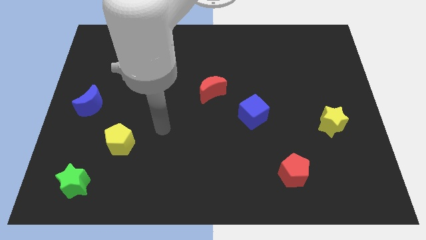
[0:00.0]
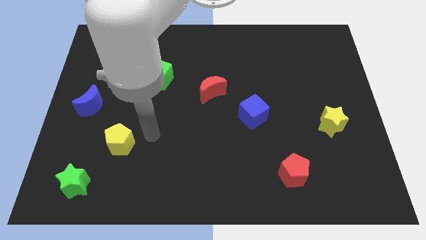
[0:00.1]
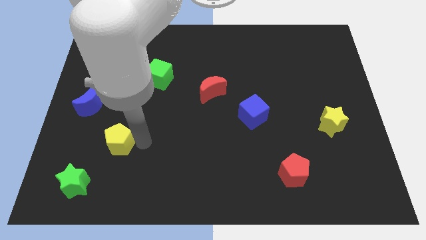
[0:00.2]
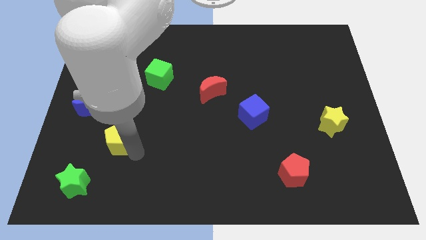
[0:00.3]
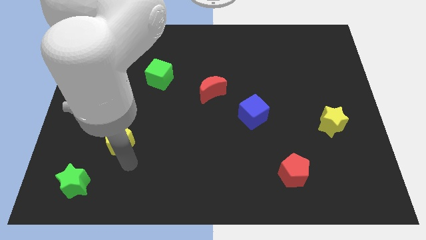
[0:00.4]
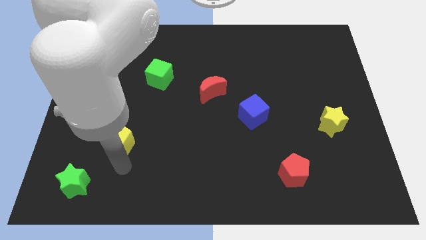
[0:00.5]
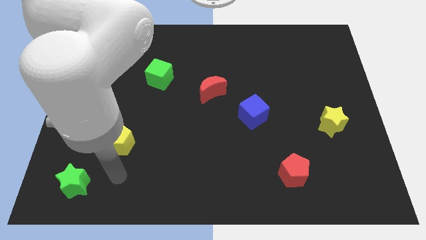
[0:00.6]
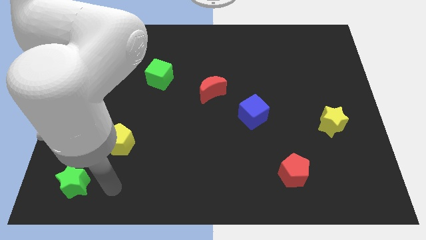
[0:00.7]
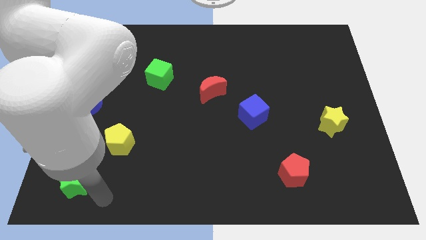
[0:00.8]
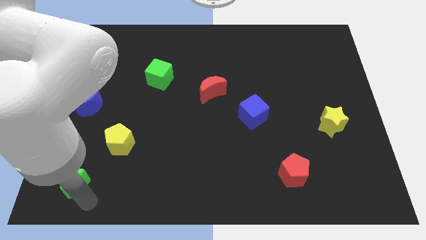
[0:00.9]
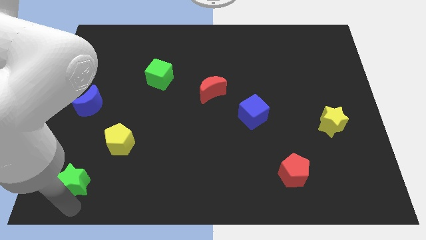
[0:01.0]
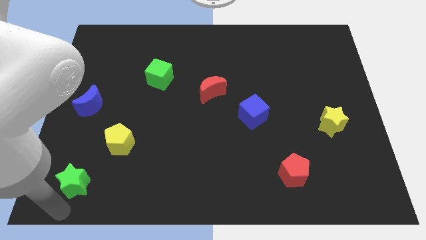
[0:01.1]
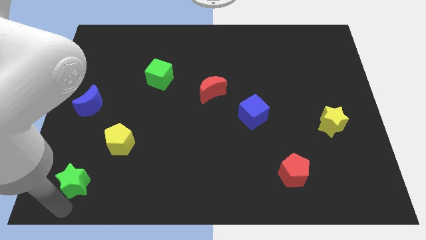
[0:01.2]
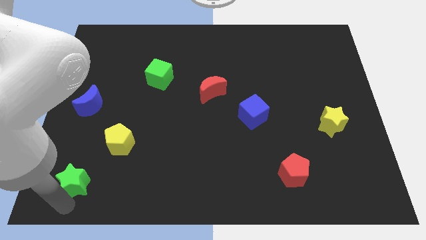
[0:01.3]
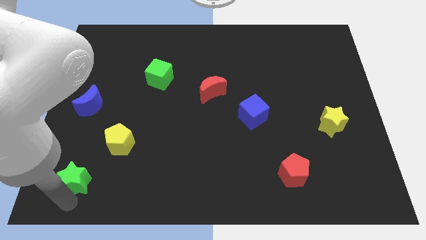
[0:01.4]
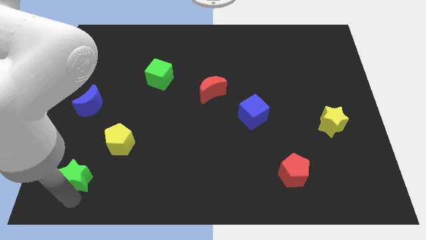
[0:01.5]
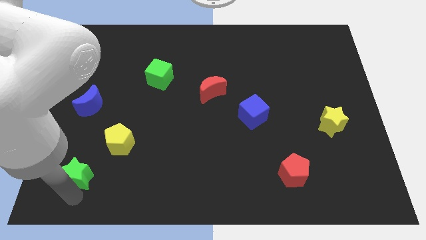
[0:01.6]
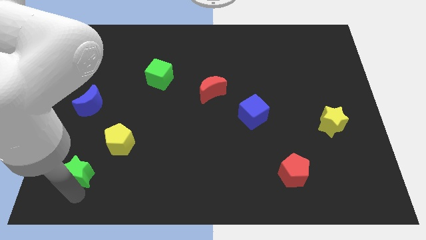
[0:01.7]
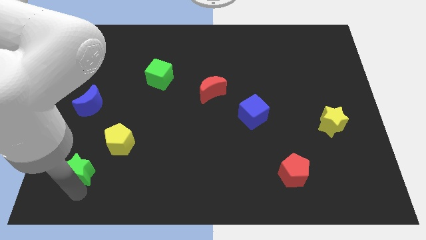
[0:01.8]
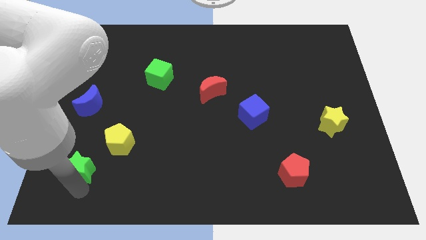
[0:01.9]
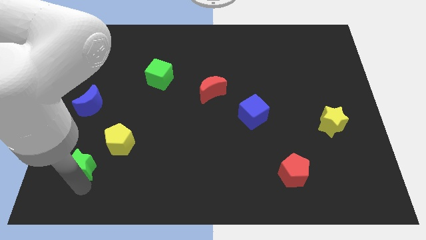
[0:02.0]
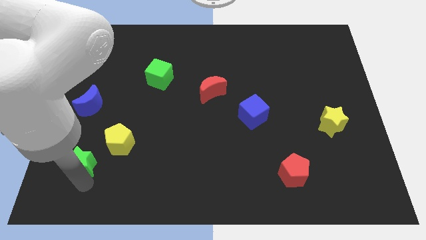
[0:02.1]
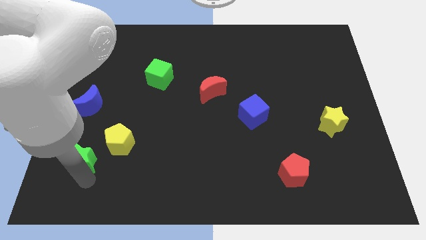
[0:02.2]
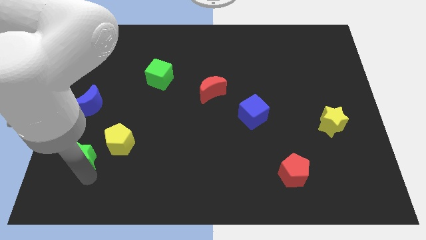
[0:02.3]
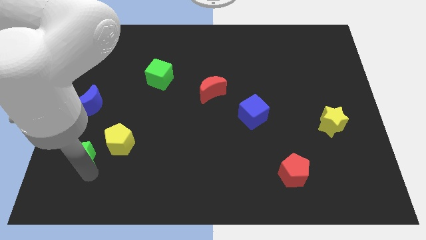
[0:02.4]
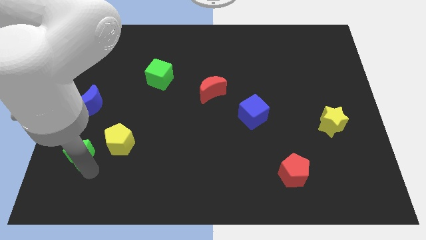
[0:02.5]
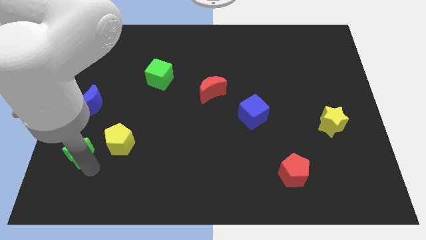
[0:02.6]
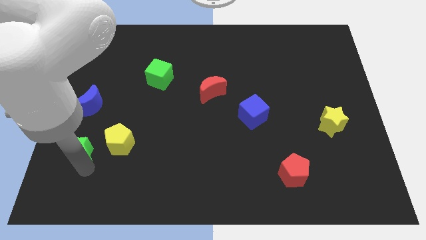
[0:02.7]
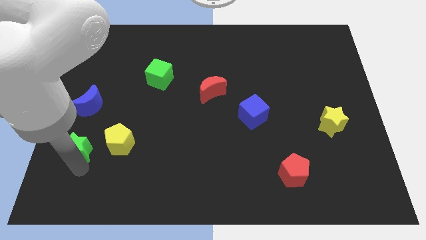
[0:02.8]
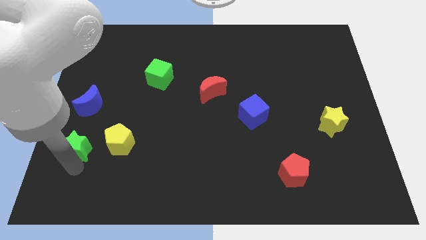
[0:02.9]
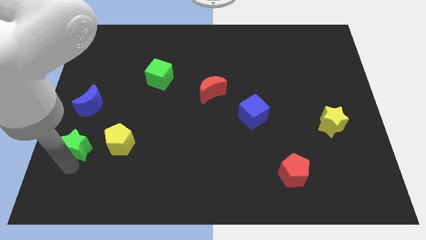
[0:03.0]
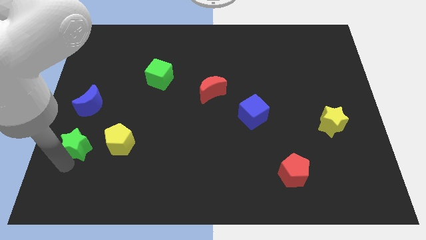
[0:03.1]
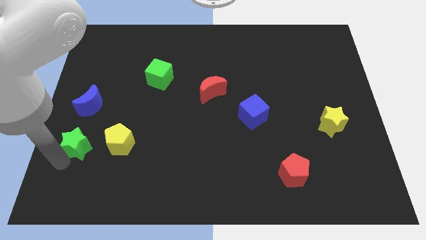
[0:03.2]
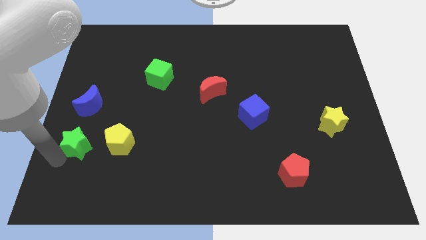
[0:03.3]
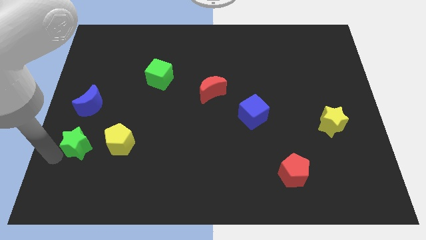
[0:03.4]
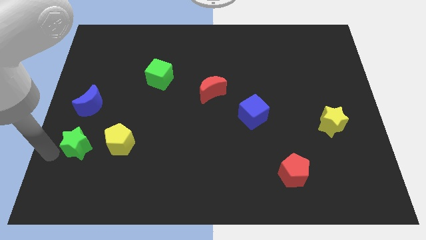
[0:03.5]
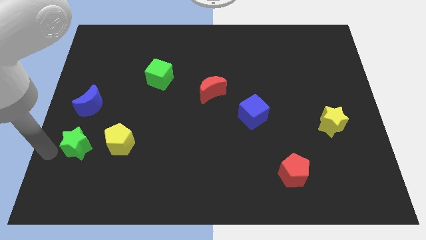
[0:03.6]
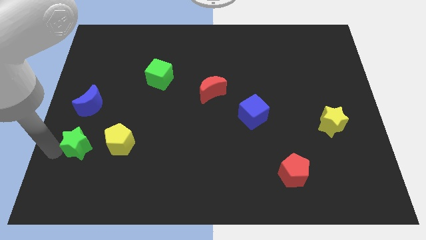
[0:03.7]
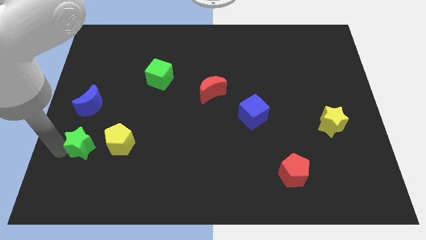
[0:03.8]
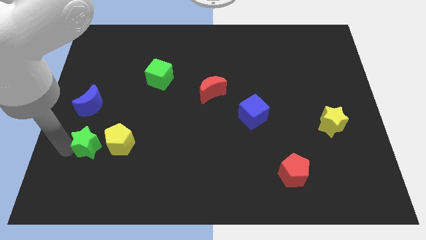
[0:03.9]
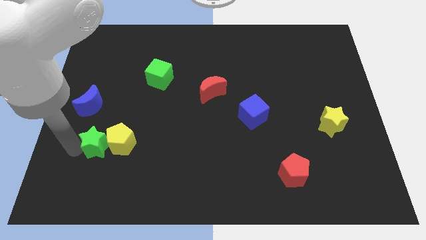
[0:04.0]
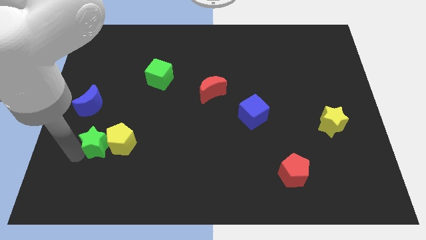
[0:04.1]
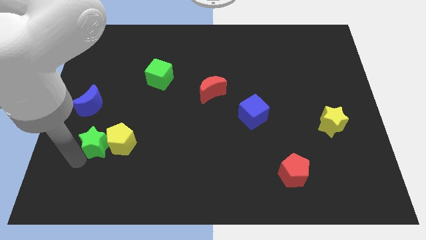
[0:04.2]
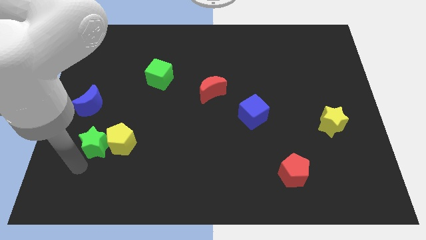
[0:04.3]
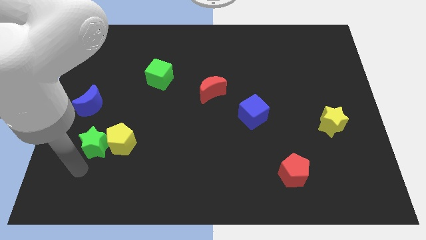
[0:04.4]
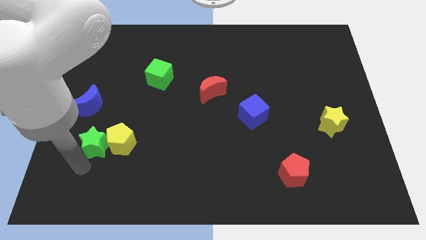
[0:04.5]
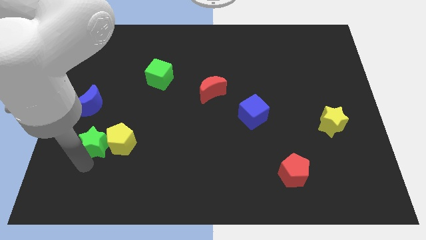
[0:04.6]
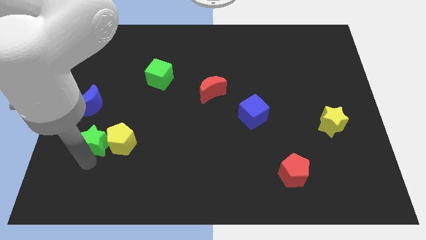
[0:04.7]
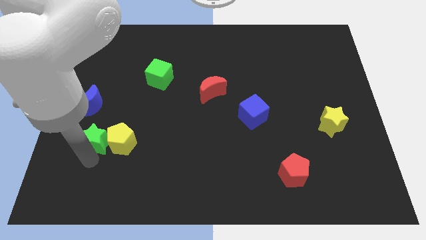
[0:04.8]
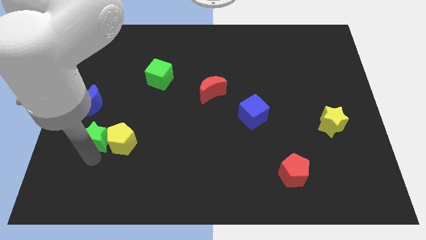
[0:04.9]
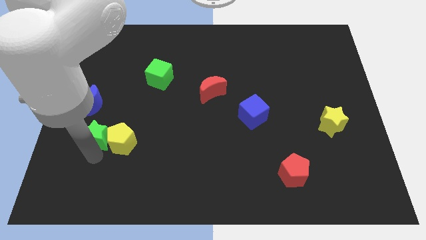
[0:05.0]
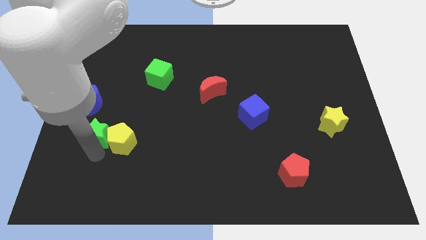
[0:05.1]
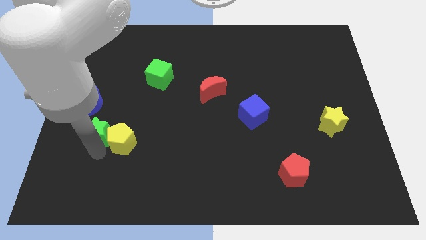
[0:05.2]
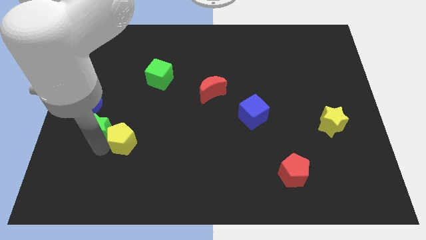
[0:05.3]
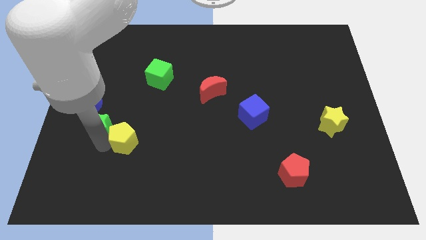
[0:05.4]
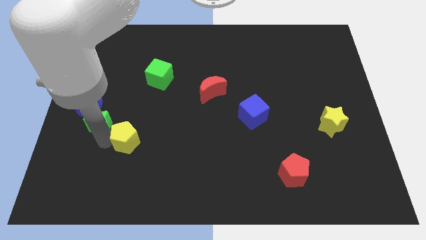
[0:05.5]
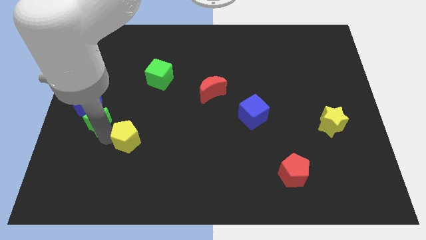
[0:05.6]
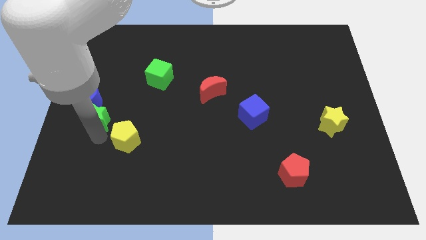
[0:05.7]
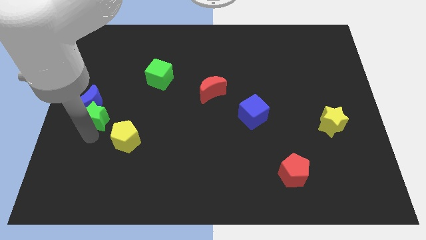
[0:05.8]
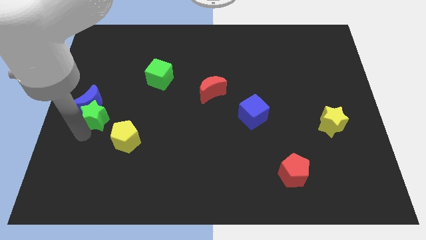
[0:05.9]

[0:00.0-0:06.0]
put the green star to the right side of the blue moon

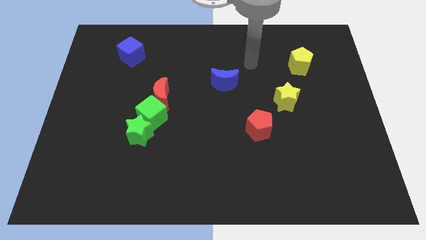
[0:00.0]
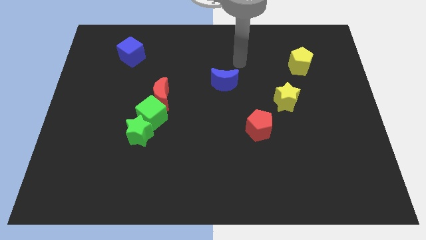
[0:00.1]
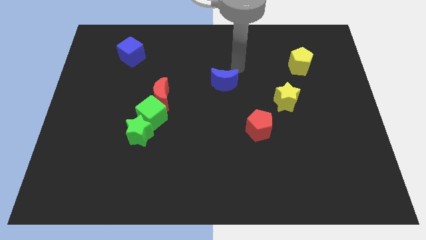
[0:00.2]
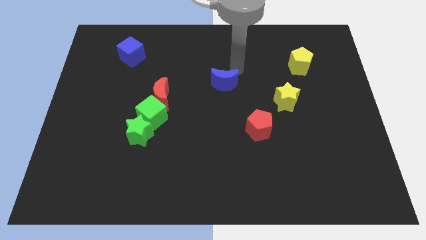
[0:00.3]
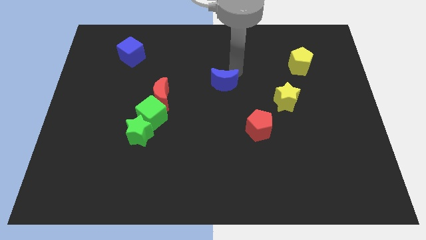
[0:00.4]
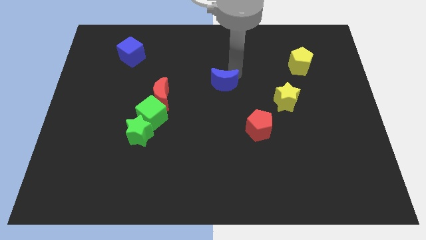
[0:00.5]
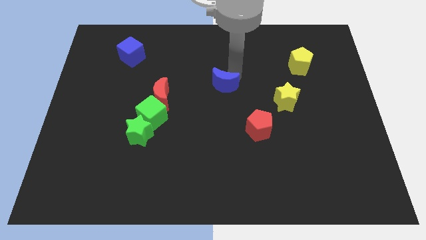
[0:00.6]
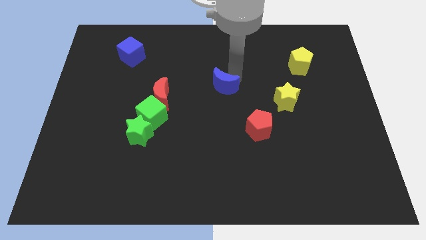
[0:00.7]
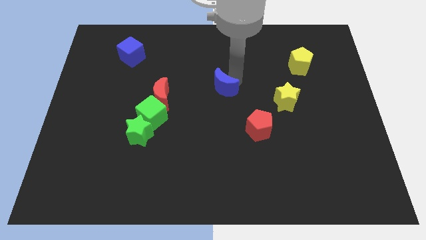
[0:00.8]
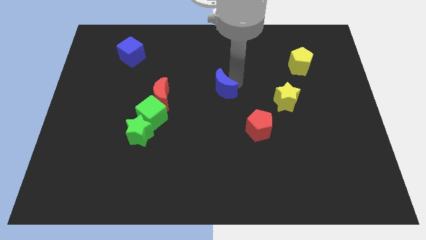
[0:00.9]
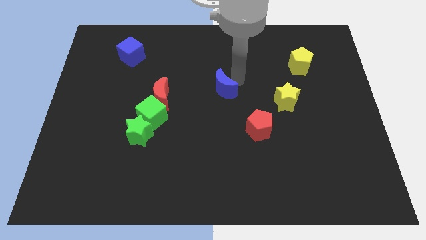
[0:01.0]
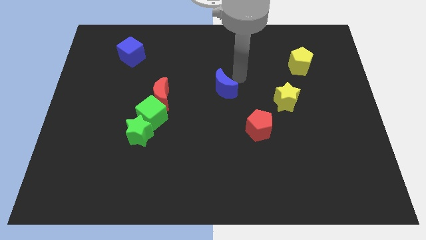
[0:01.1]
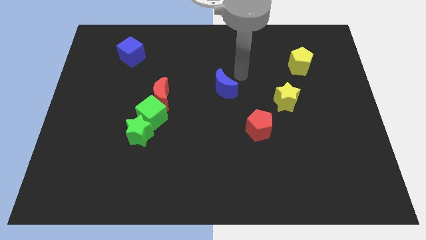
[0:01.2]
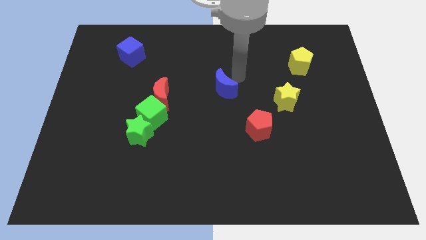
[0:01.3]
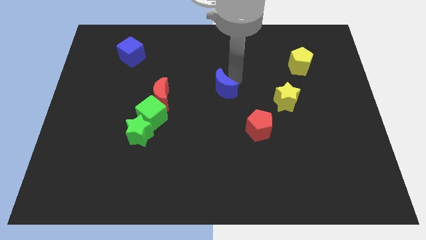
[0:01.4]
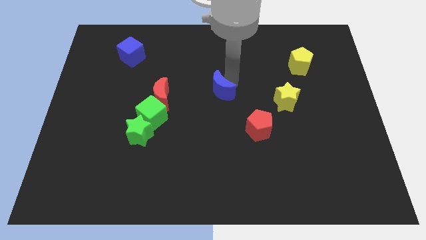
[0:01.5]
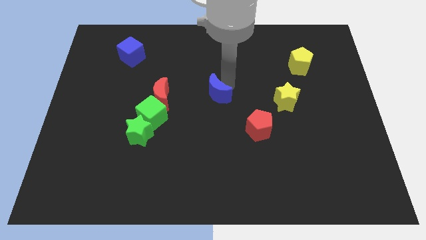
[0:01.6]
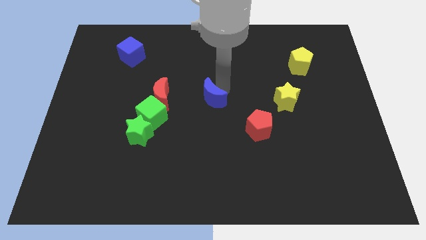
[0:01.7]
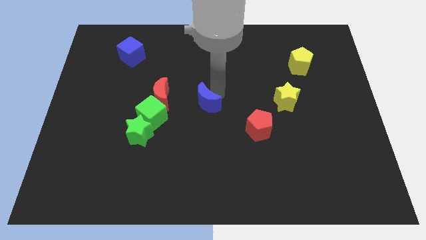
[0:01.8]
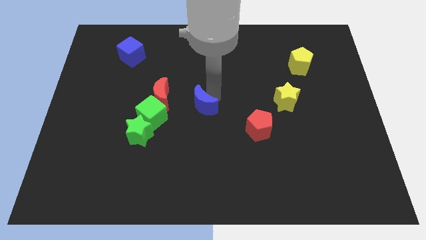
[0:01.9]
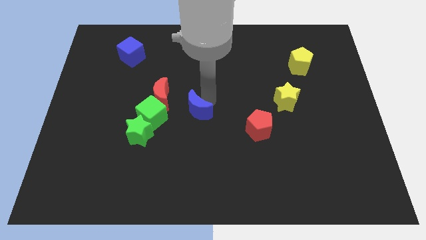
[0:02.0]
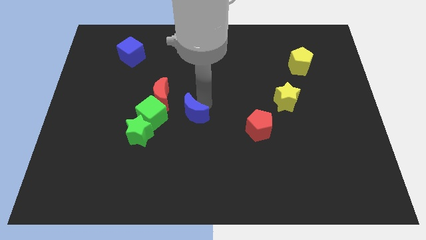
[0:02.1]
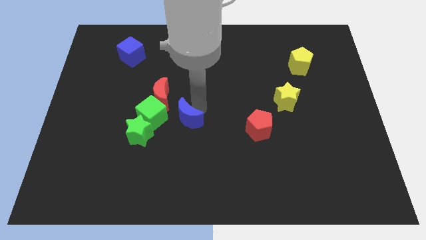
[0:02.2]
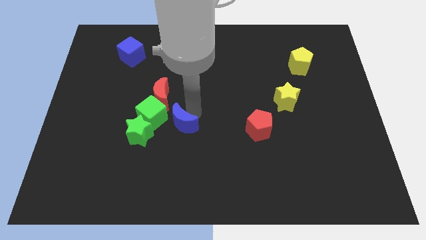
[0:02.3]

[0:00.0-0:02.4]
push the blue moon to the bottom right side of the green cube
